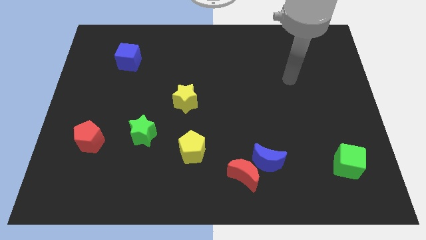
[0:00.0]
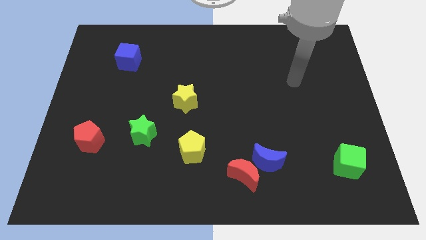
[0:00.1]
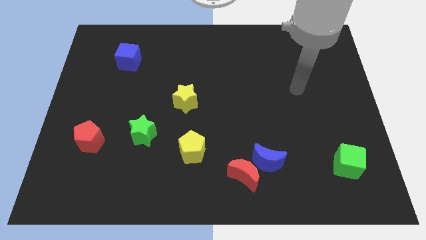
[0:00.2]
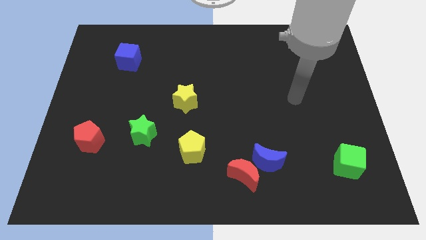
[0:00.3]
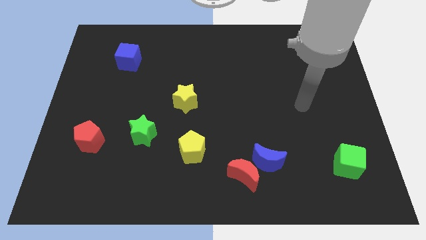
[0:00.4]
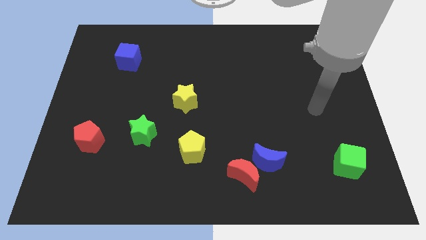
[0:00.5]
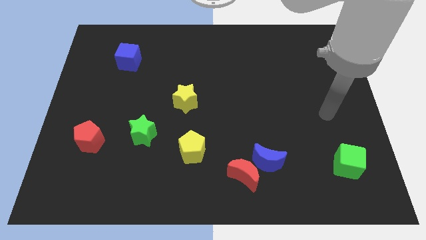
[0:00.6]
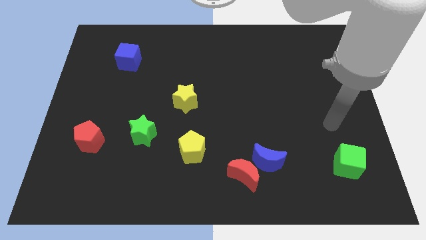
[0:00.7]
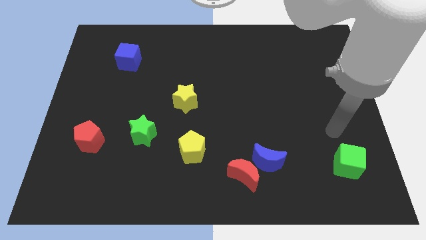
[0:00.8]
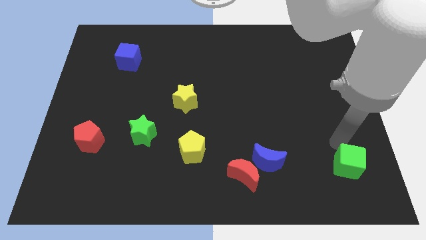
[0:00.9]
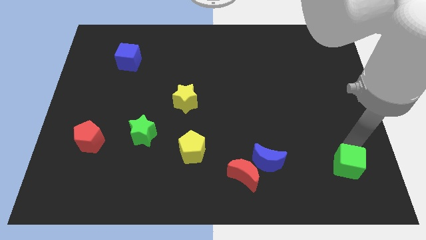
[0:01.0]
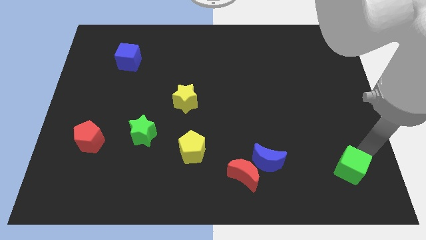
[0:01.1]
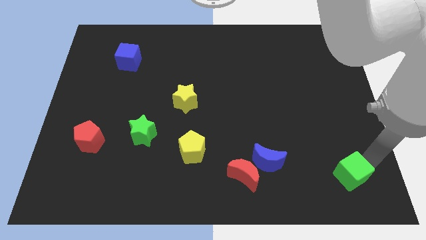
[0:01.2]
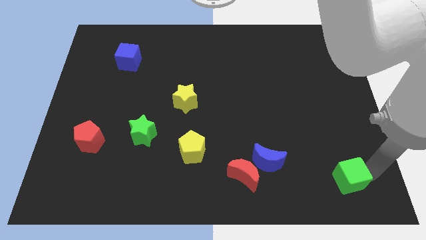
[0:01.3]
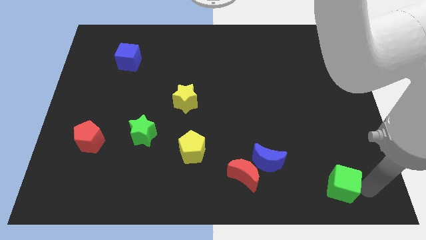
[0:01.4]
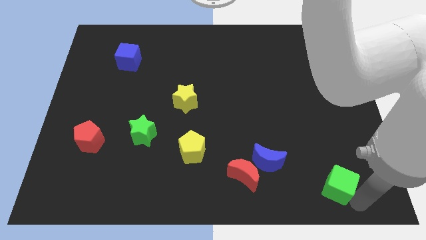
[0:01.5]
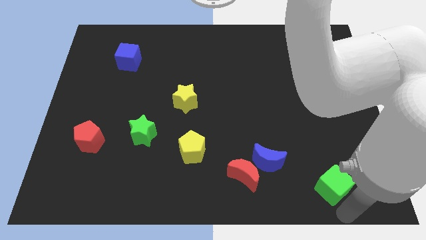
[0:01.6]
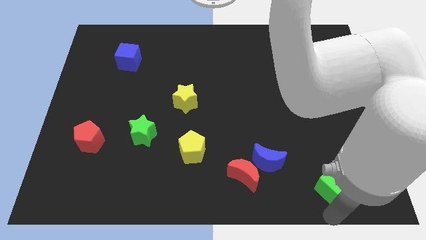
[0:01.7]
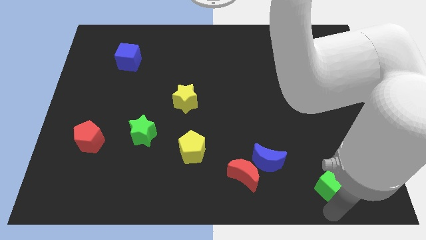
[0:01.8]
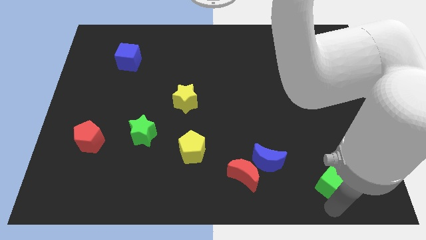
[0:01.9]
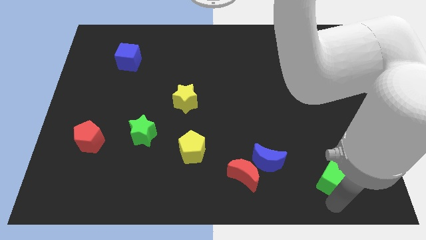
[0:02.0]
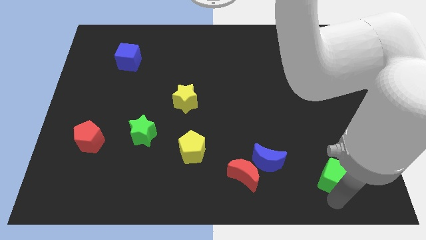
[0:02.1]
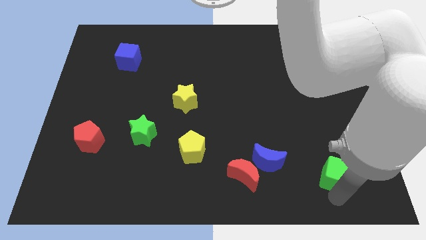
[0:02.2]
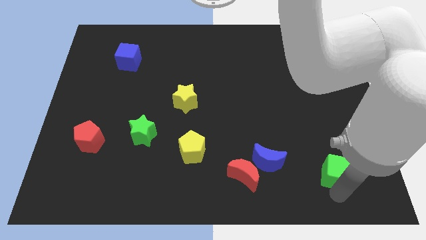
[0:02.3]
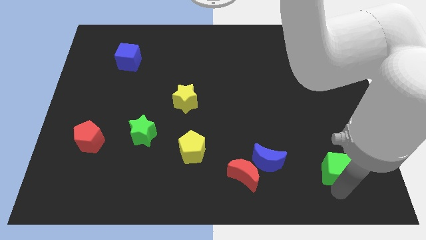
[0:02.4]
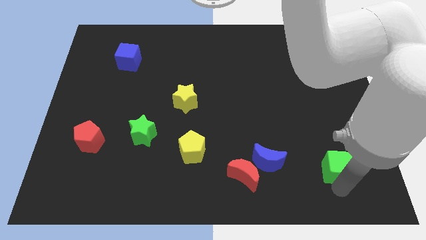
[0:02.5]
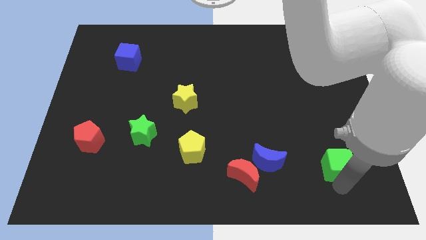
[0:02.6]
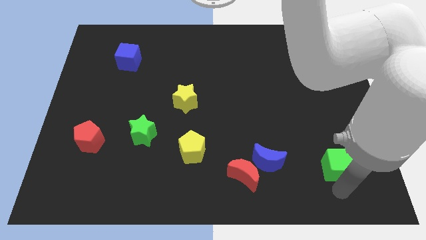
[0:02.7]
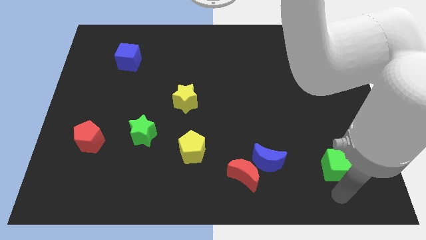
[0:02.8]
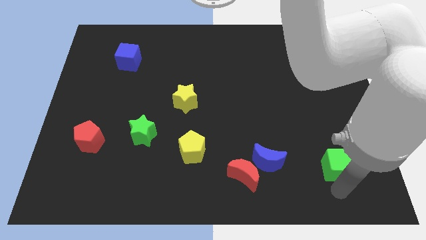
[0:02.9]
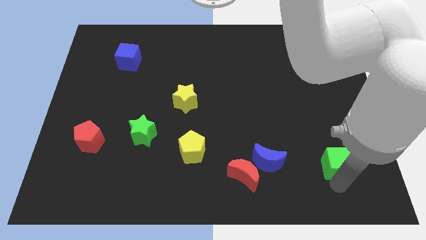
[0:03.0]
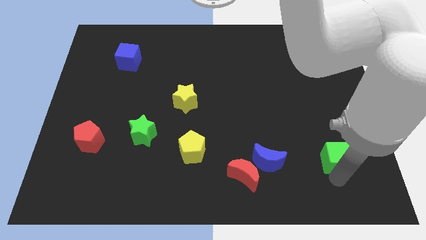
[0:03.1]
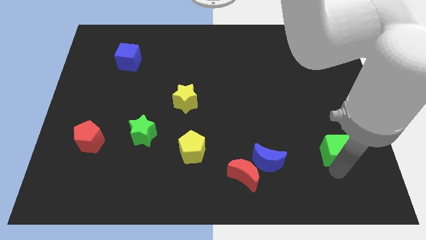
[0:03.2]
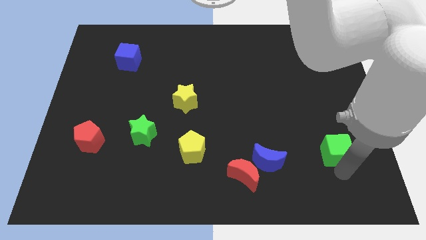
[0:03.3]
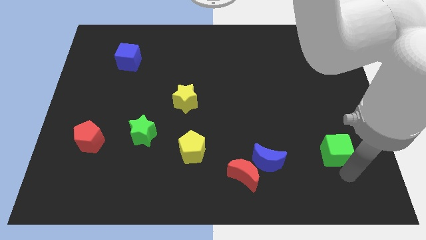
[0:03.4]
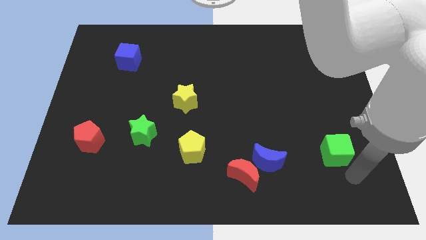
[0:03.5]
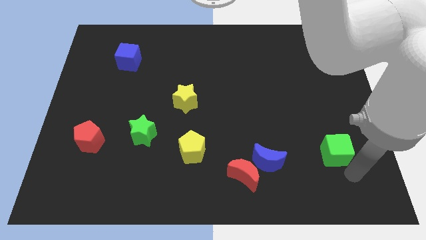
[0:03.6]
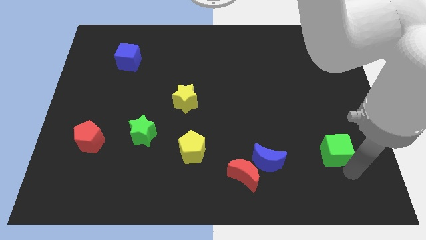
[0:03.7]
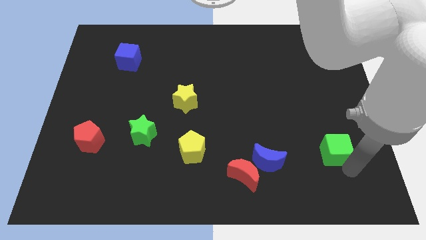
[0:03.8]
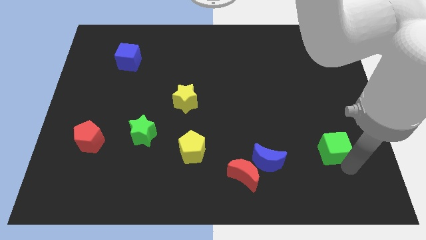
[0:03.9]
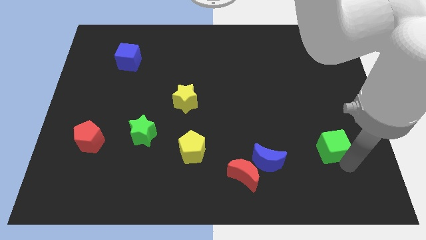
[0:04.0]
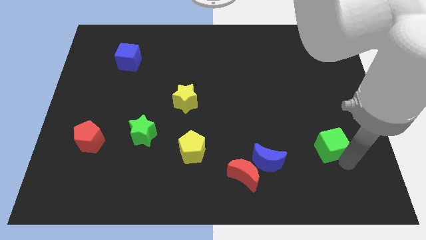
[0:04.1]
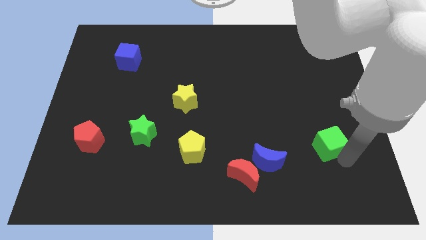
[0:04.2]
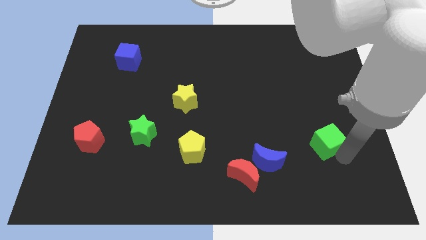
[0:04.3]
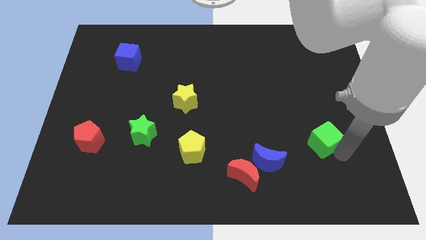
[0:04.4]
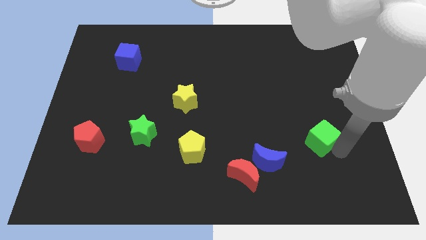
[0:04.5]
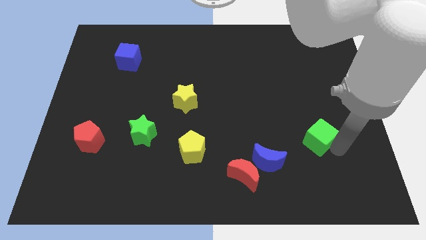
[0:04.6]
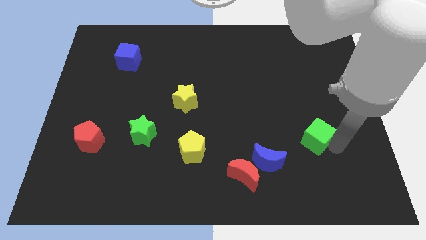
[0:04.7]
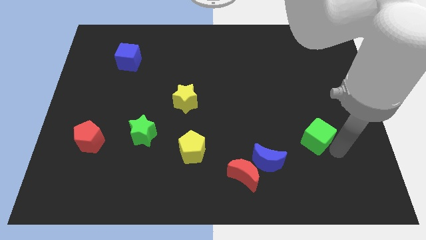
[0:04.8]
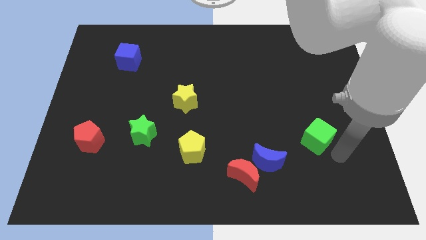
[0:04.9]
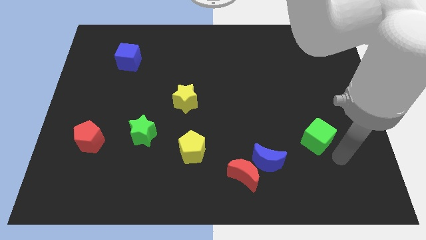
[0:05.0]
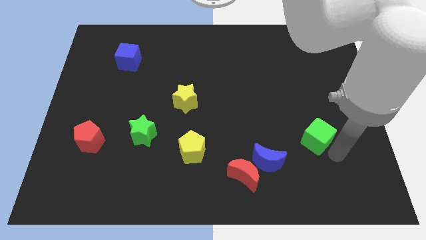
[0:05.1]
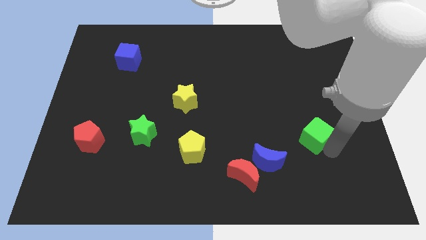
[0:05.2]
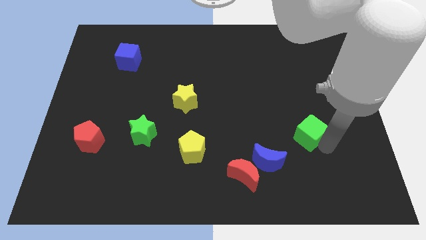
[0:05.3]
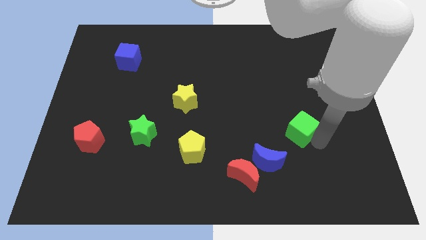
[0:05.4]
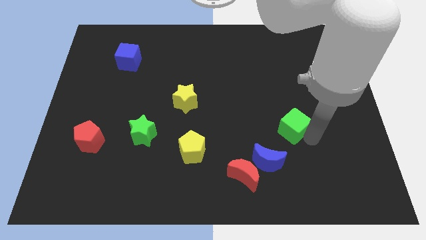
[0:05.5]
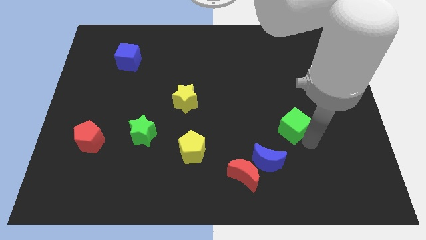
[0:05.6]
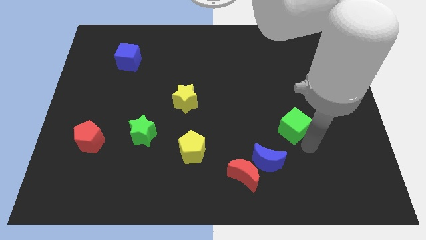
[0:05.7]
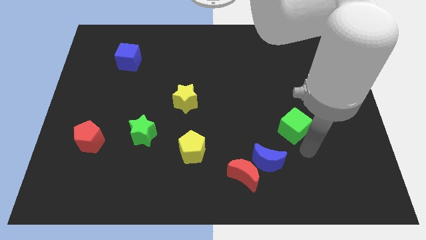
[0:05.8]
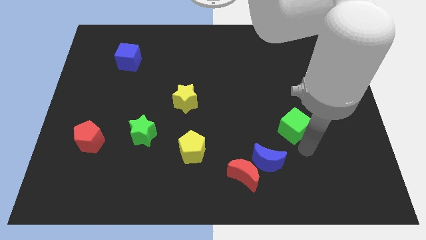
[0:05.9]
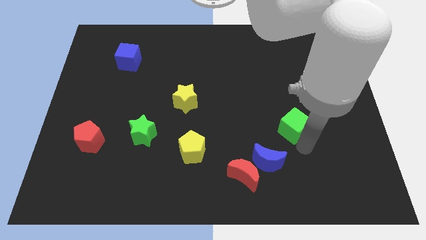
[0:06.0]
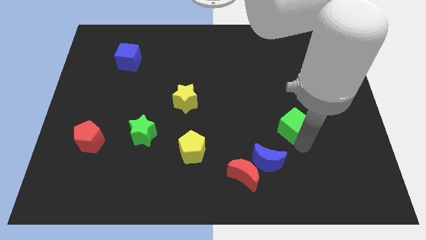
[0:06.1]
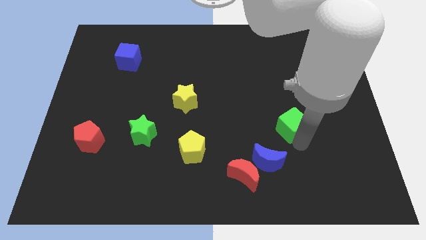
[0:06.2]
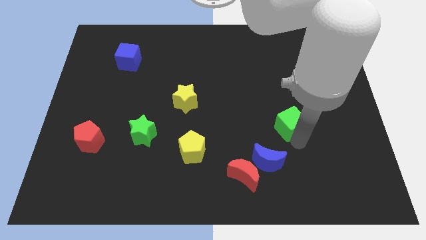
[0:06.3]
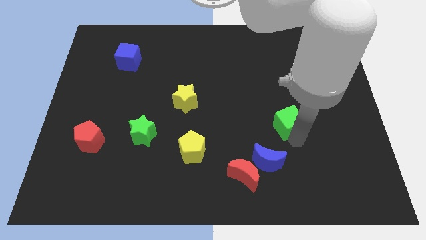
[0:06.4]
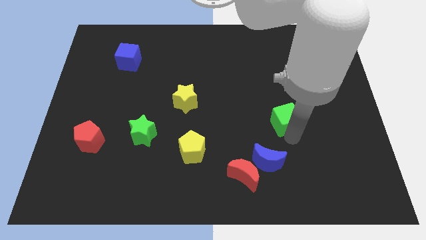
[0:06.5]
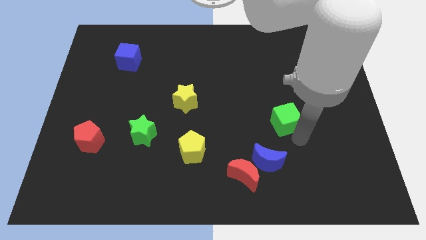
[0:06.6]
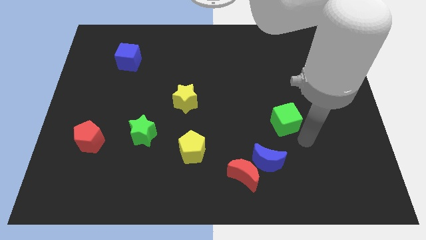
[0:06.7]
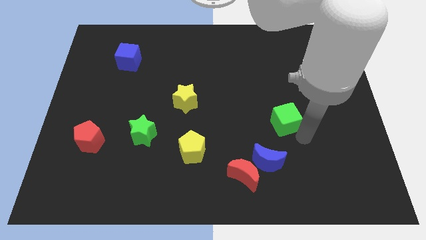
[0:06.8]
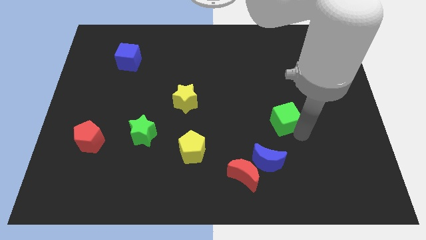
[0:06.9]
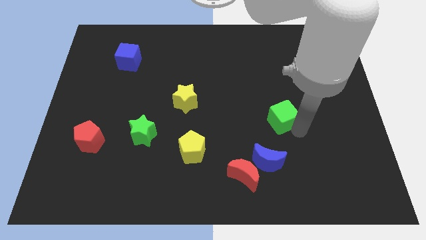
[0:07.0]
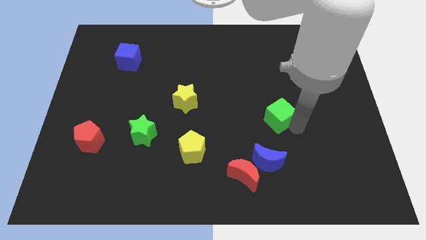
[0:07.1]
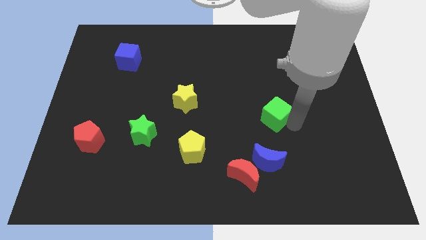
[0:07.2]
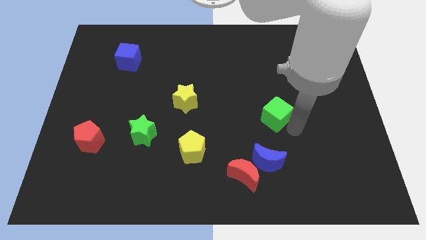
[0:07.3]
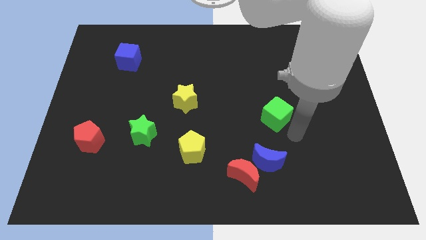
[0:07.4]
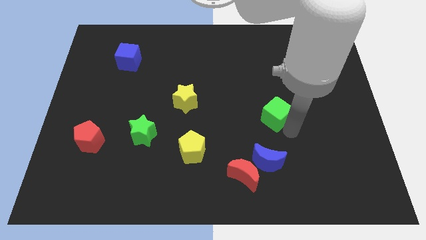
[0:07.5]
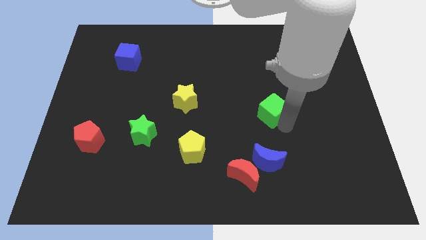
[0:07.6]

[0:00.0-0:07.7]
push the green cube upwards and then to the left
